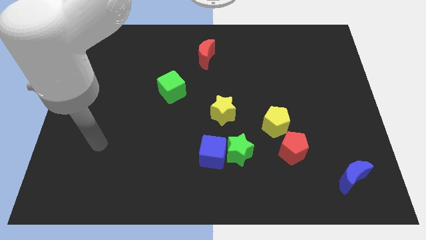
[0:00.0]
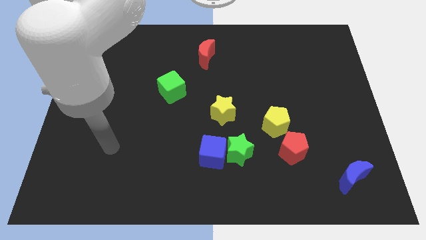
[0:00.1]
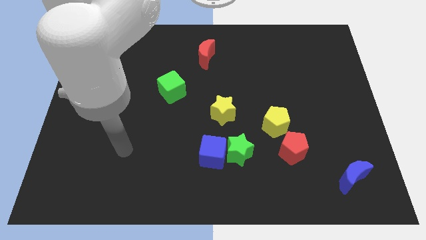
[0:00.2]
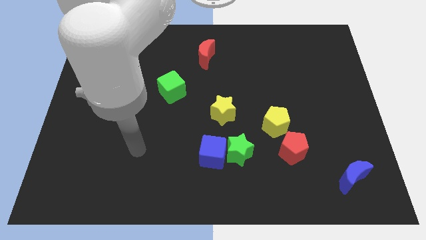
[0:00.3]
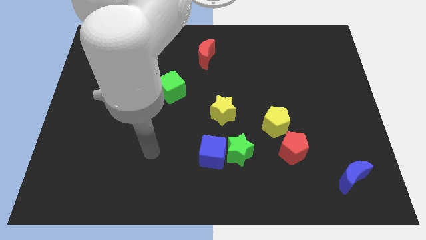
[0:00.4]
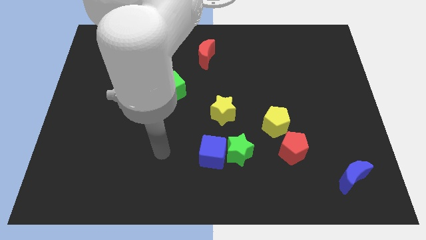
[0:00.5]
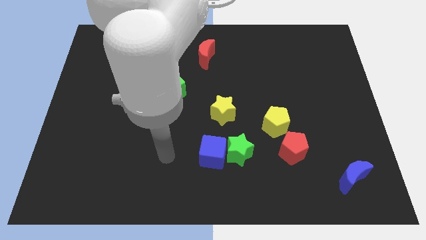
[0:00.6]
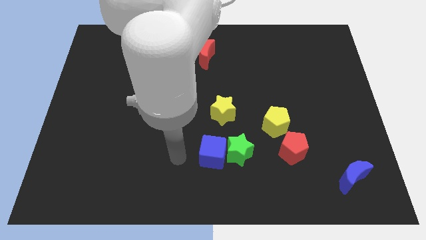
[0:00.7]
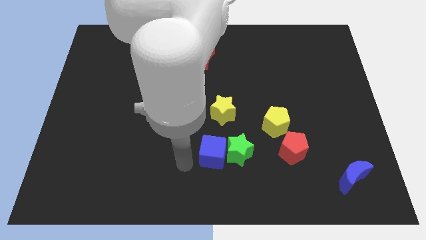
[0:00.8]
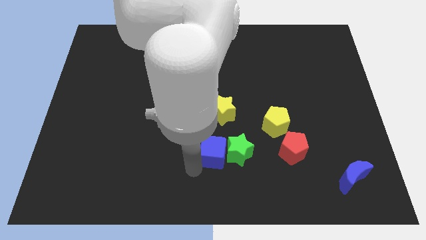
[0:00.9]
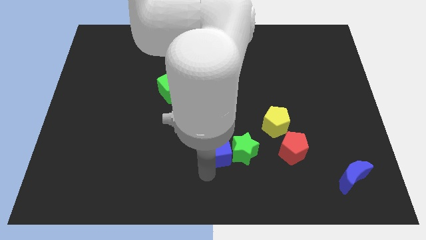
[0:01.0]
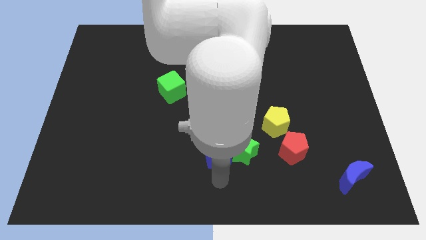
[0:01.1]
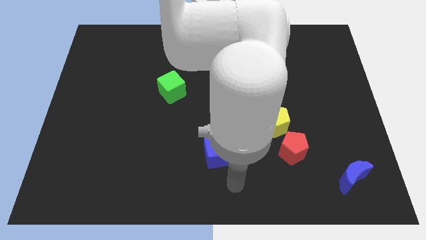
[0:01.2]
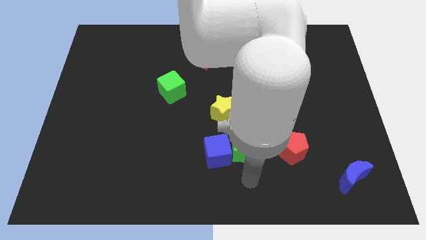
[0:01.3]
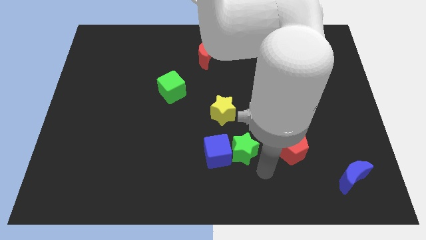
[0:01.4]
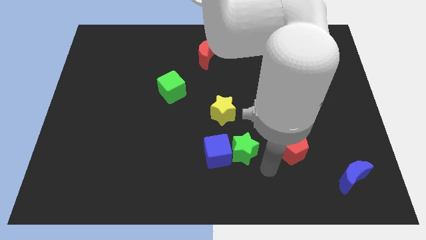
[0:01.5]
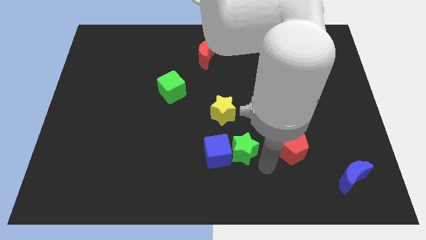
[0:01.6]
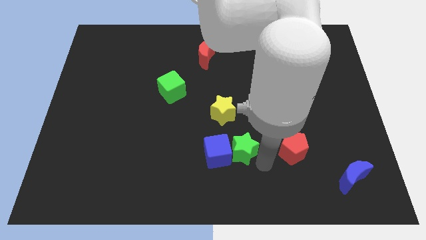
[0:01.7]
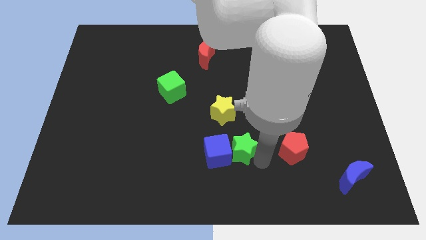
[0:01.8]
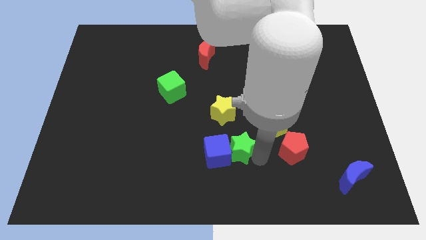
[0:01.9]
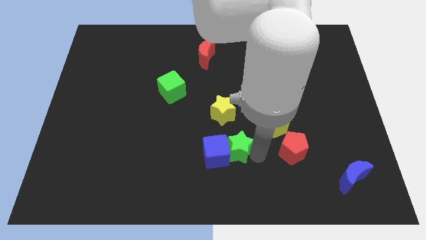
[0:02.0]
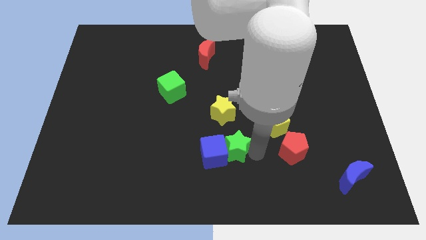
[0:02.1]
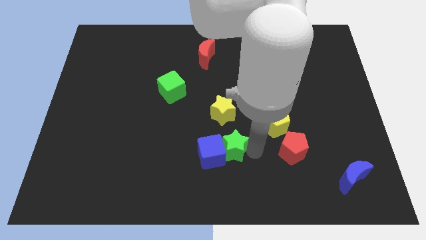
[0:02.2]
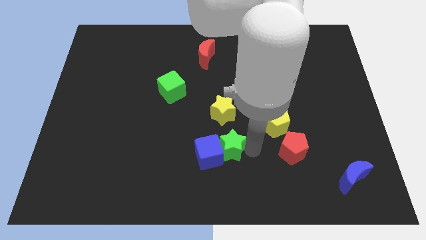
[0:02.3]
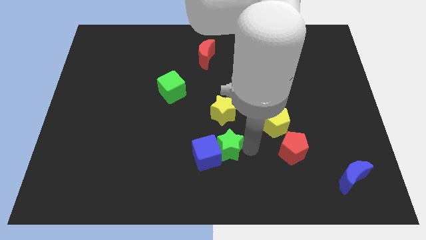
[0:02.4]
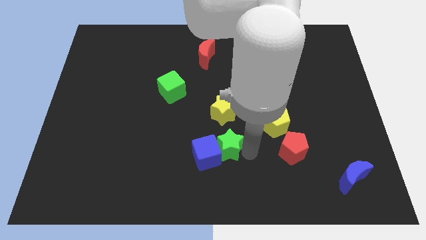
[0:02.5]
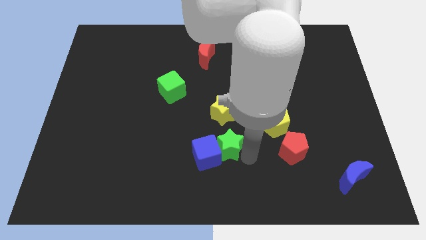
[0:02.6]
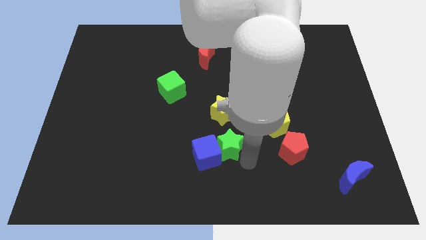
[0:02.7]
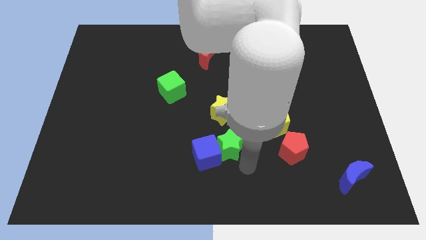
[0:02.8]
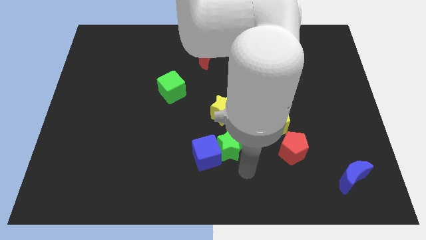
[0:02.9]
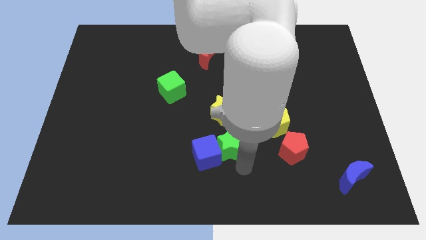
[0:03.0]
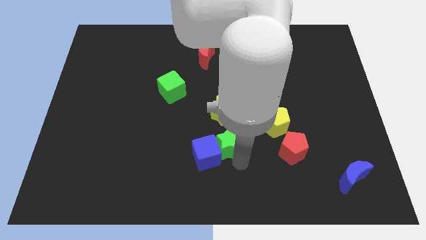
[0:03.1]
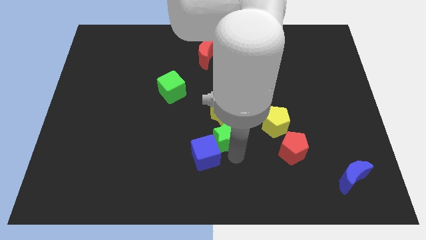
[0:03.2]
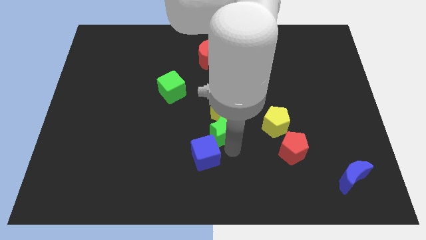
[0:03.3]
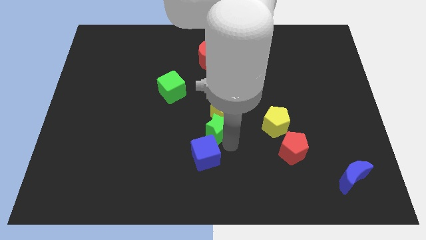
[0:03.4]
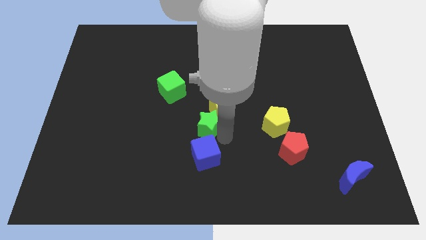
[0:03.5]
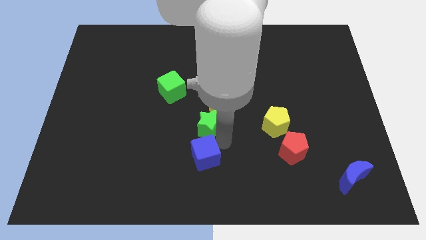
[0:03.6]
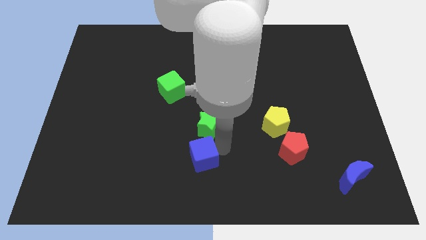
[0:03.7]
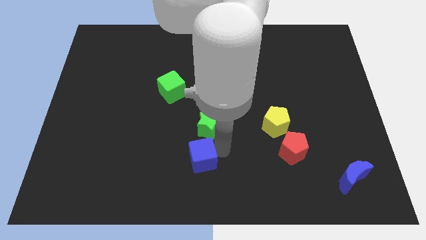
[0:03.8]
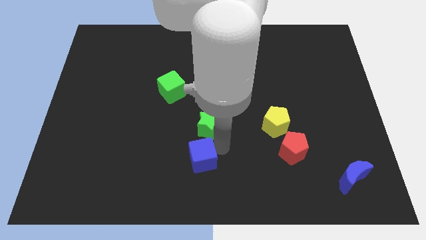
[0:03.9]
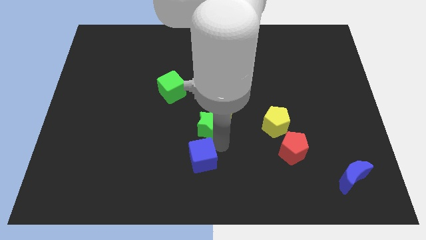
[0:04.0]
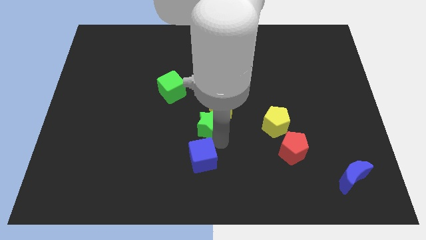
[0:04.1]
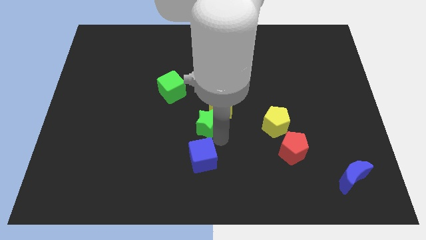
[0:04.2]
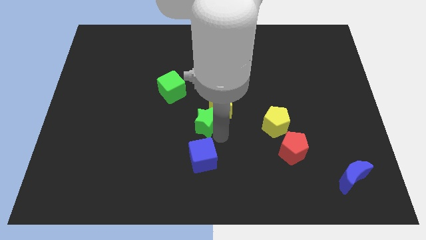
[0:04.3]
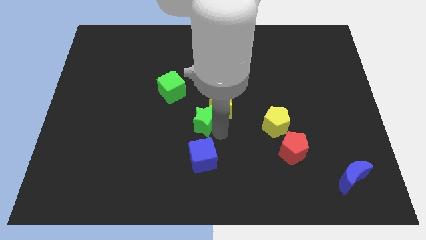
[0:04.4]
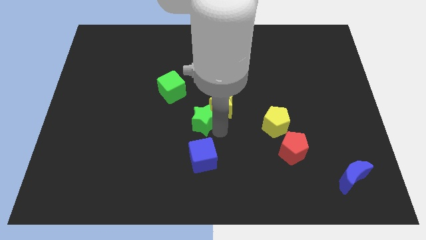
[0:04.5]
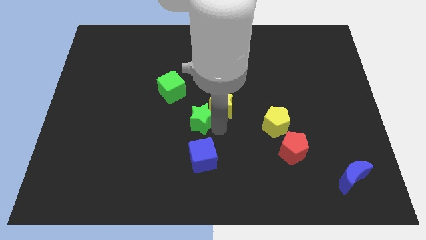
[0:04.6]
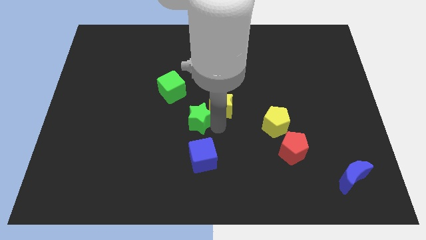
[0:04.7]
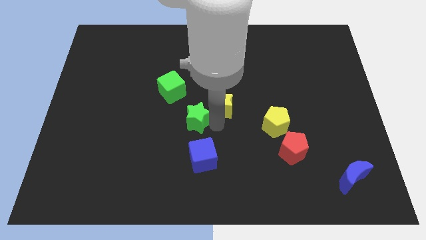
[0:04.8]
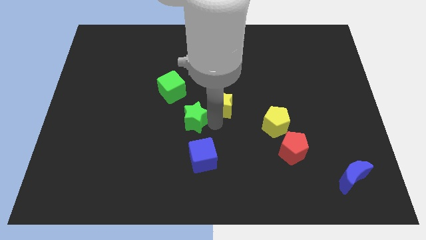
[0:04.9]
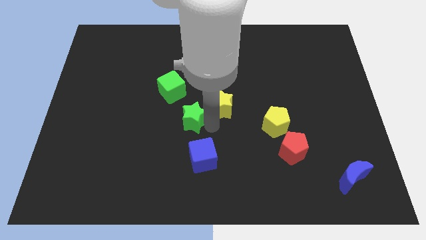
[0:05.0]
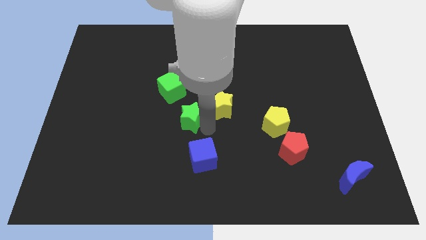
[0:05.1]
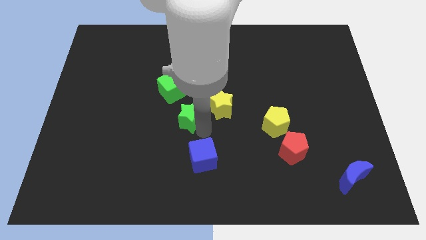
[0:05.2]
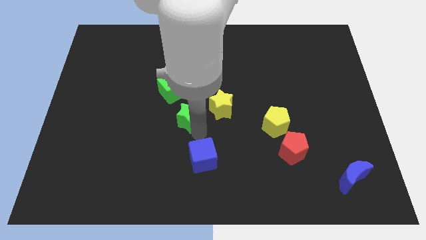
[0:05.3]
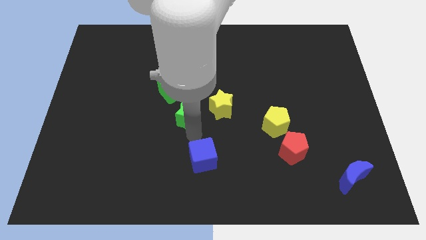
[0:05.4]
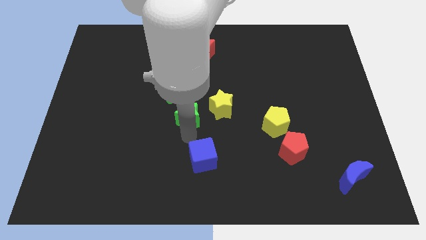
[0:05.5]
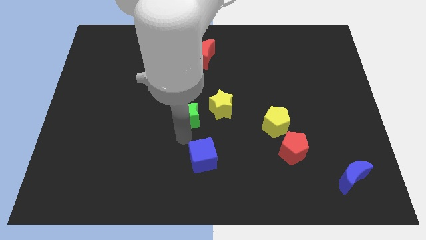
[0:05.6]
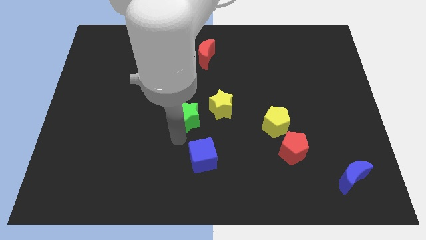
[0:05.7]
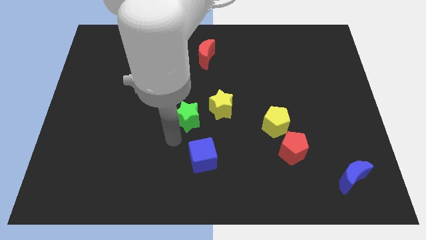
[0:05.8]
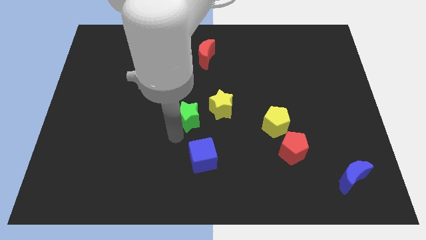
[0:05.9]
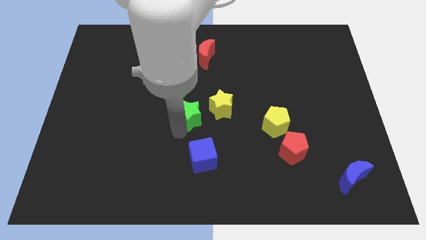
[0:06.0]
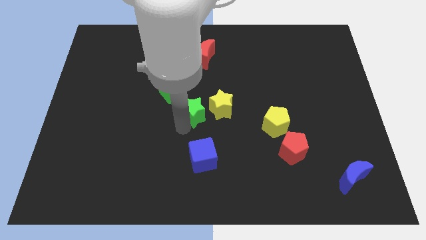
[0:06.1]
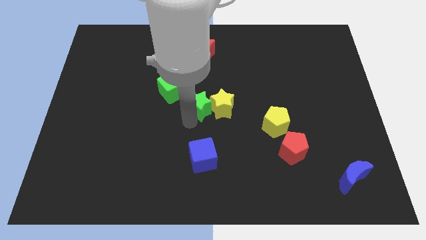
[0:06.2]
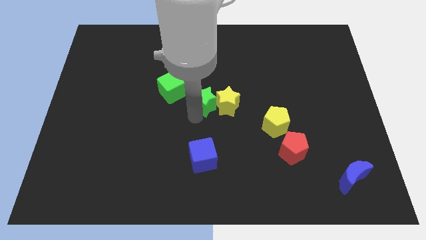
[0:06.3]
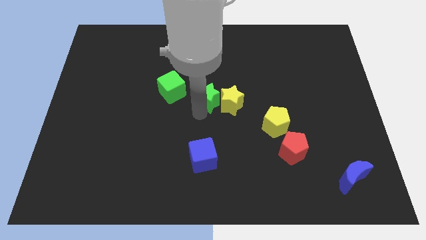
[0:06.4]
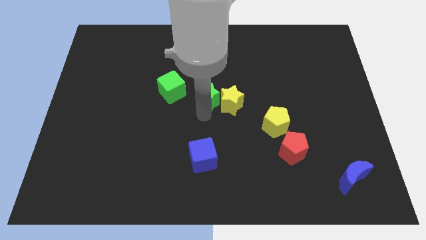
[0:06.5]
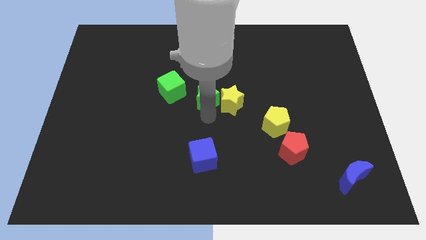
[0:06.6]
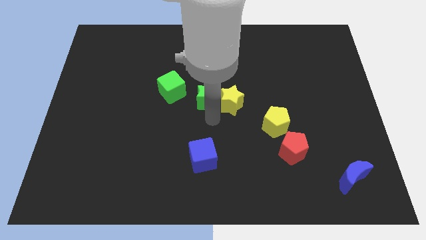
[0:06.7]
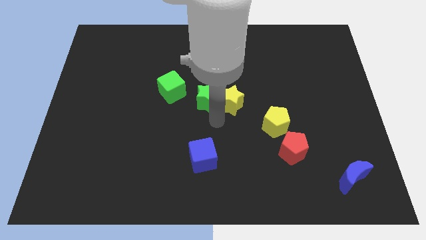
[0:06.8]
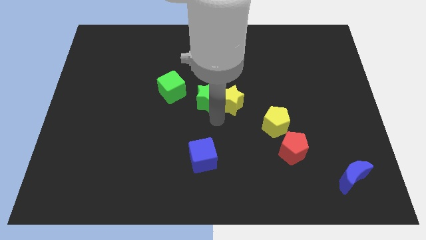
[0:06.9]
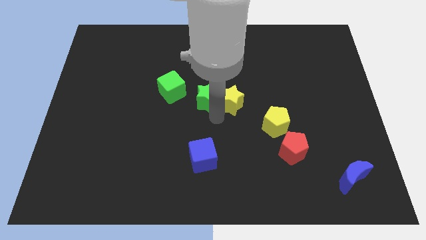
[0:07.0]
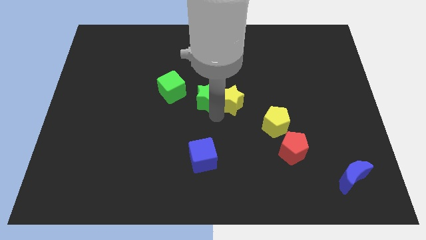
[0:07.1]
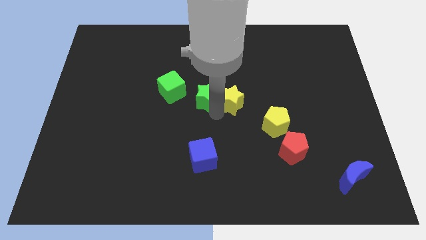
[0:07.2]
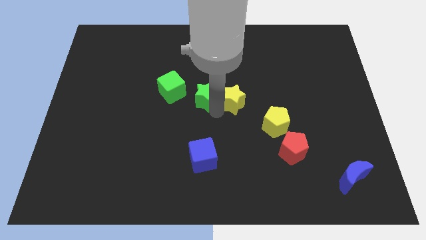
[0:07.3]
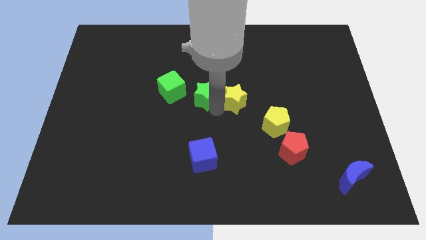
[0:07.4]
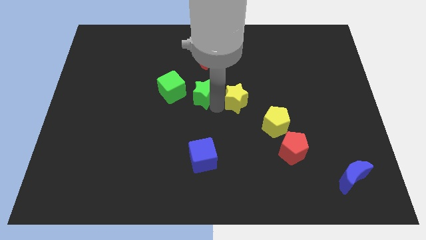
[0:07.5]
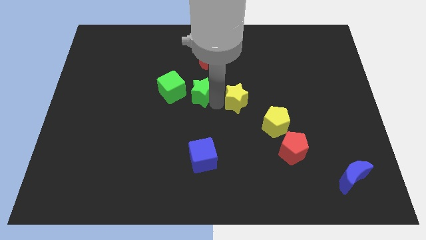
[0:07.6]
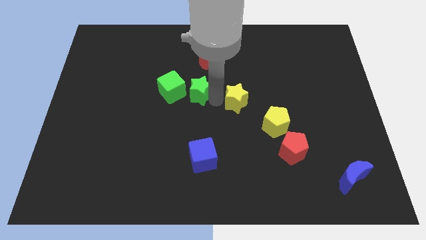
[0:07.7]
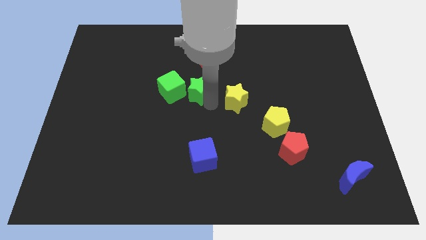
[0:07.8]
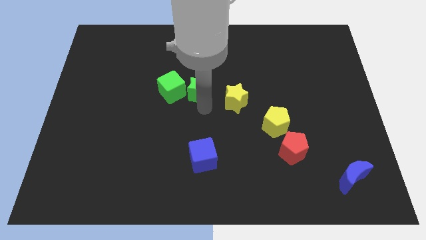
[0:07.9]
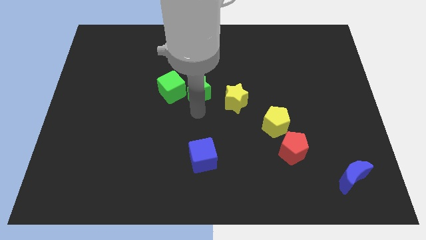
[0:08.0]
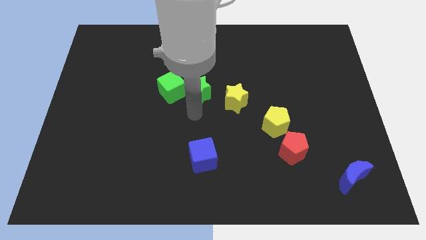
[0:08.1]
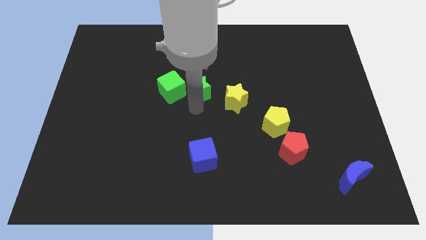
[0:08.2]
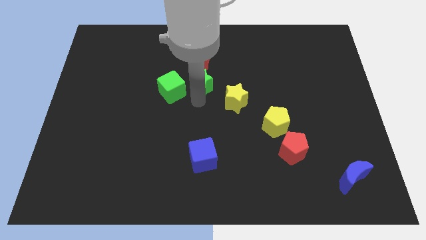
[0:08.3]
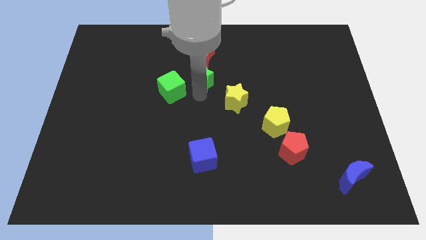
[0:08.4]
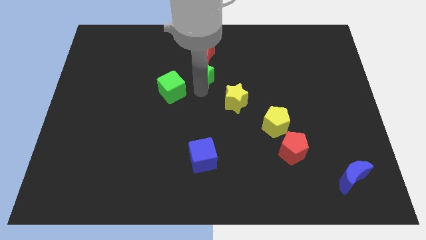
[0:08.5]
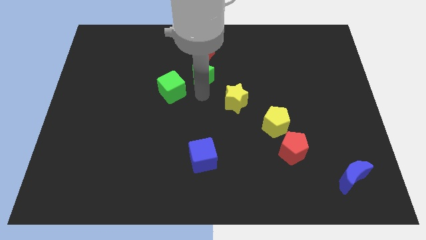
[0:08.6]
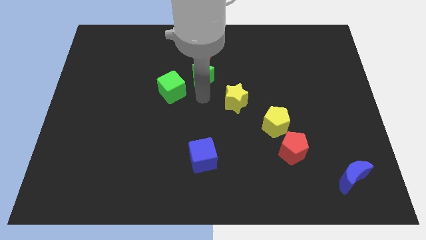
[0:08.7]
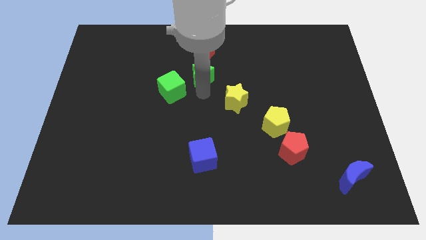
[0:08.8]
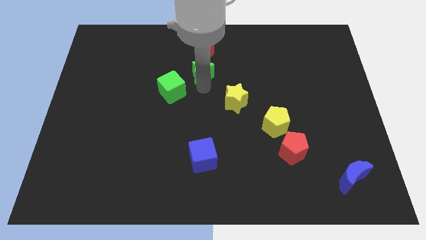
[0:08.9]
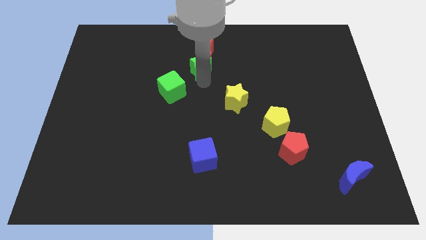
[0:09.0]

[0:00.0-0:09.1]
push the green star towards the red moon
